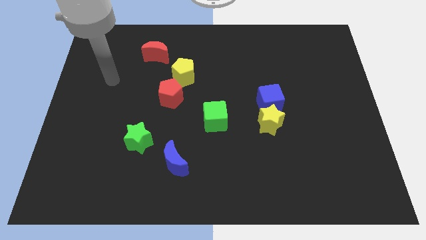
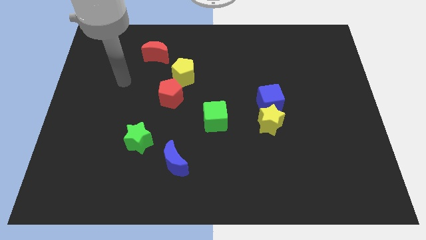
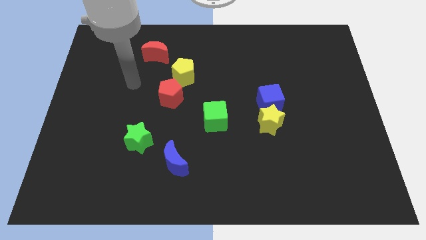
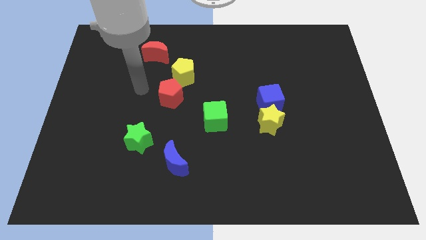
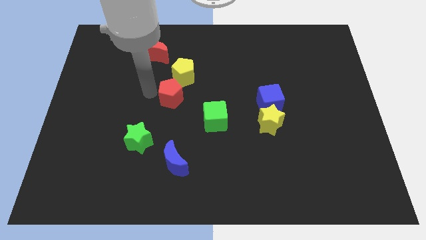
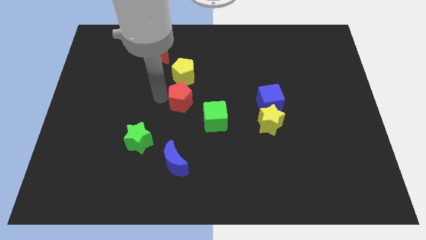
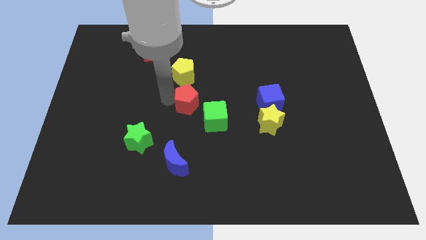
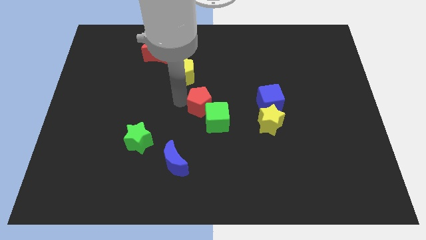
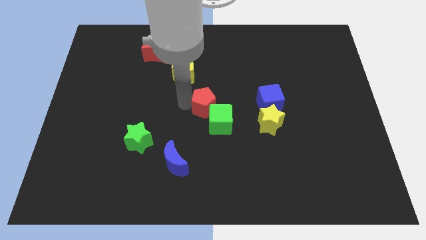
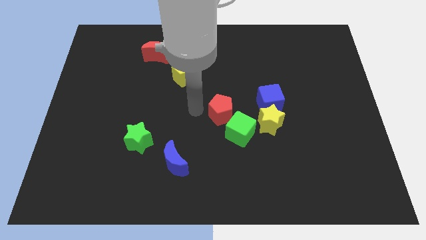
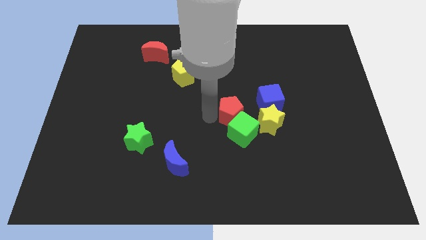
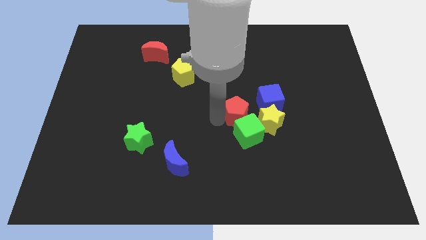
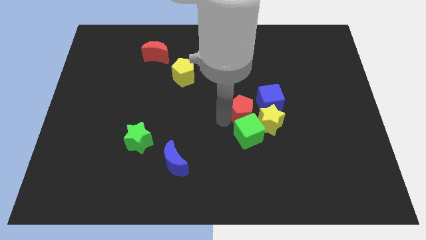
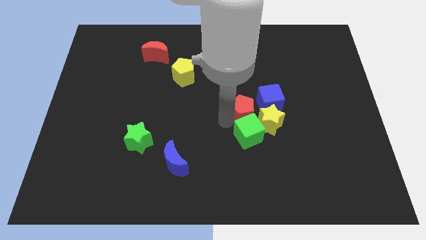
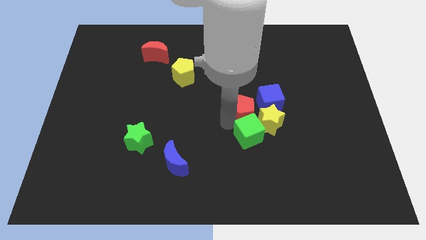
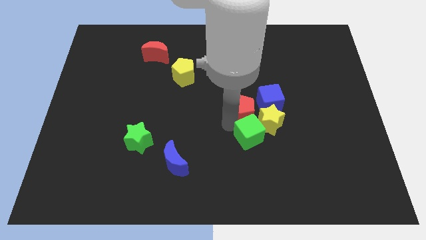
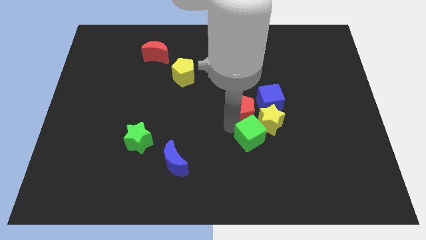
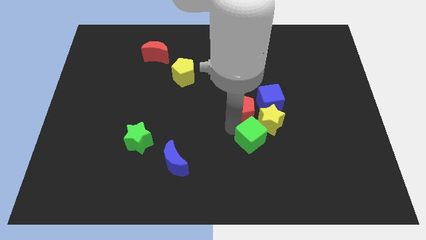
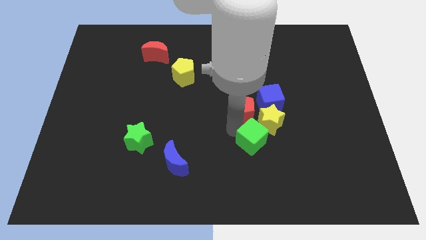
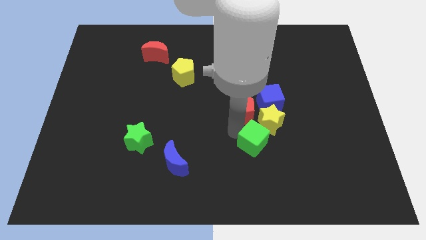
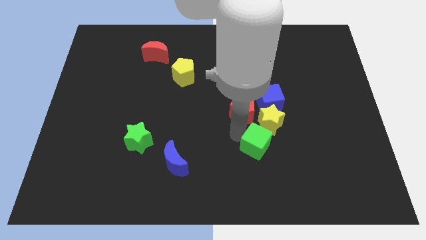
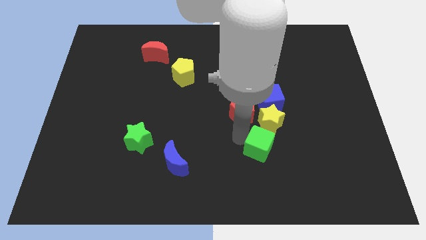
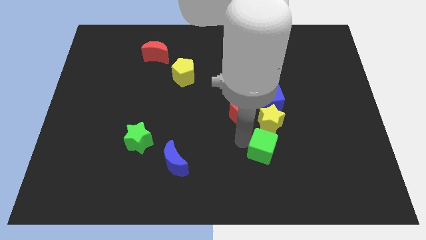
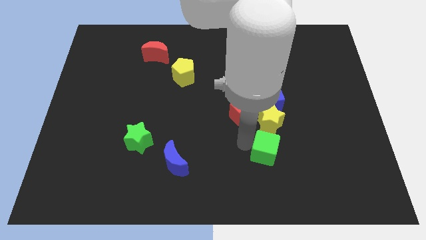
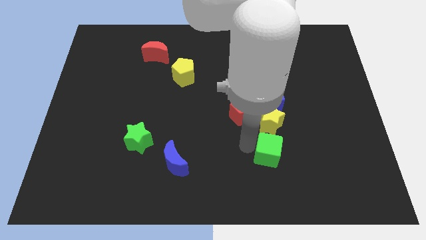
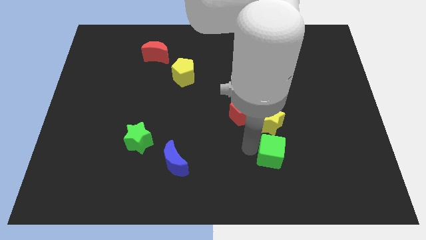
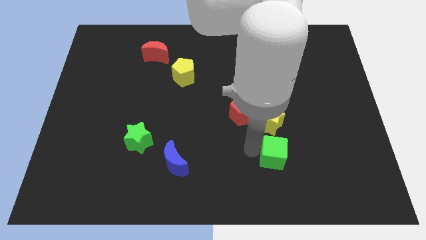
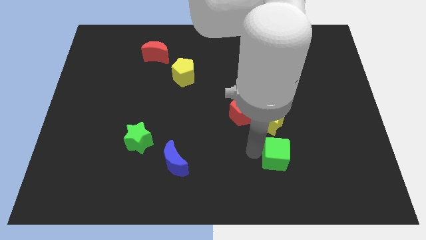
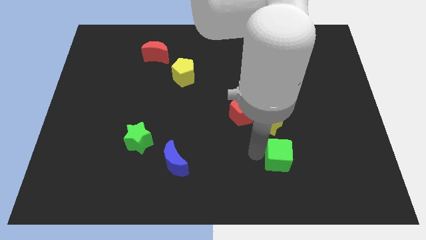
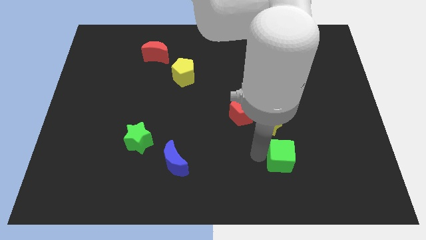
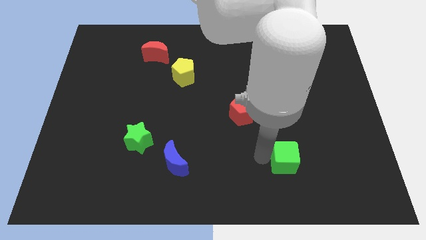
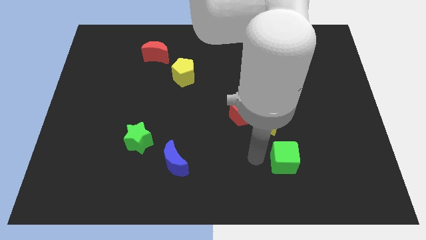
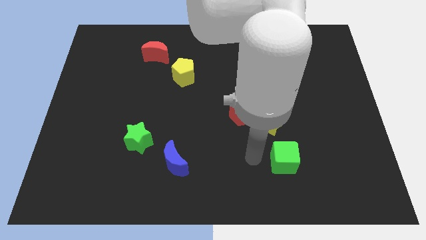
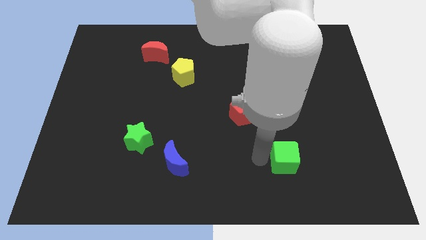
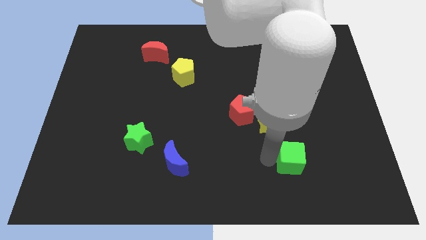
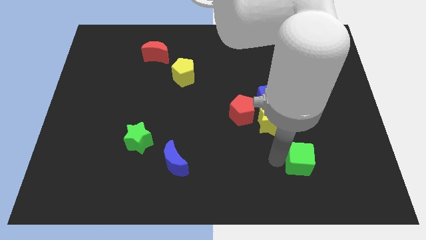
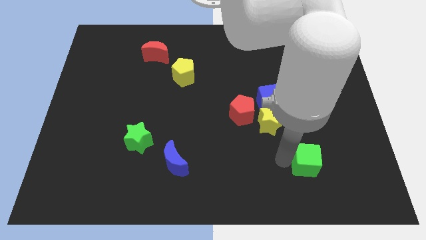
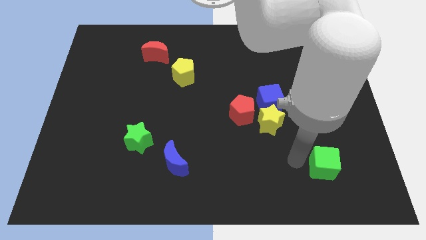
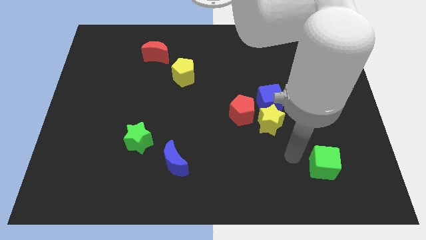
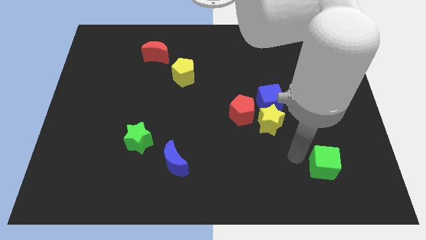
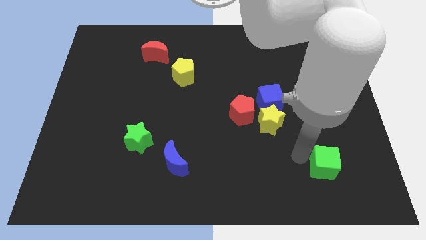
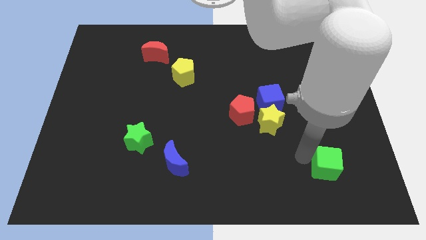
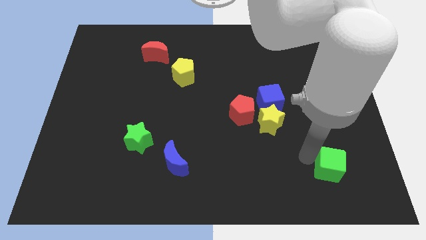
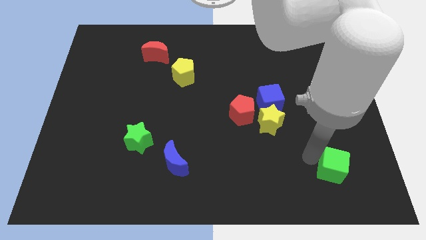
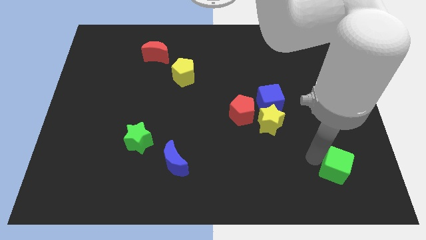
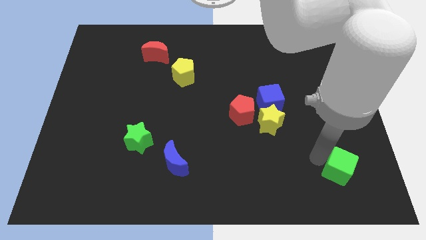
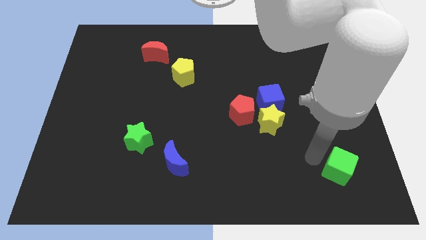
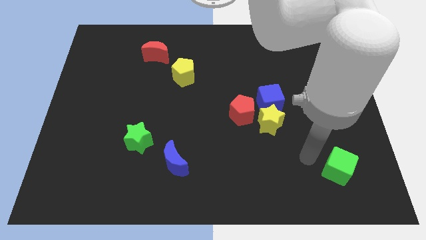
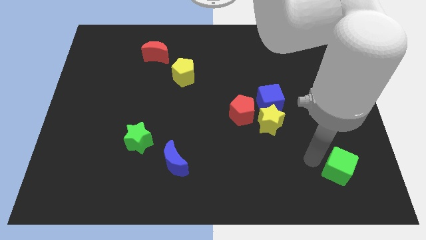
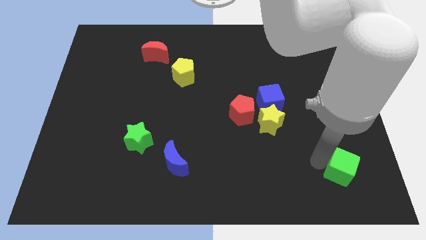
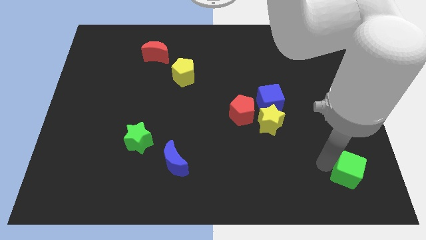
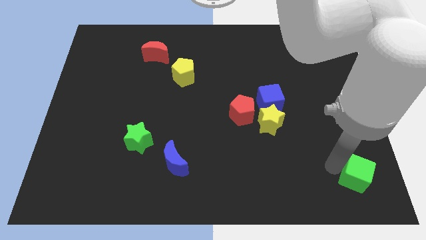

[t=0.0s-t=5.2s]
slide the green cube to the lower right corner

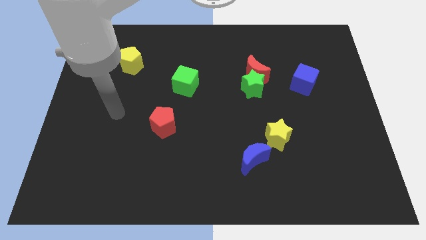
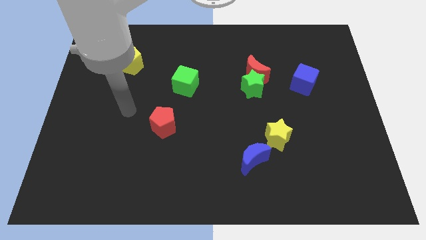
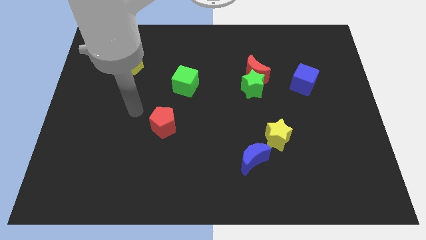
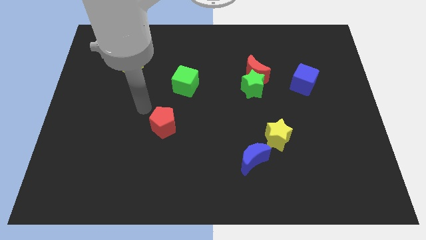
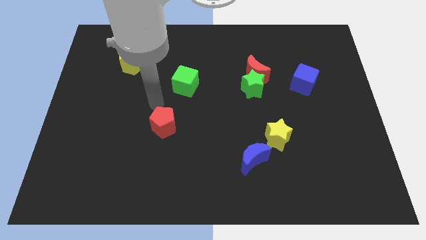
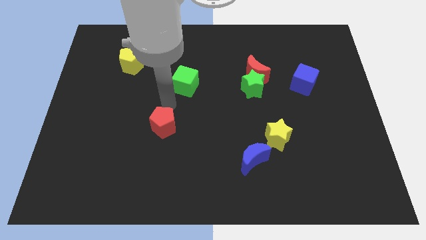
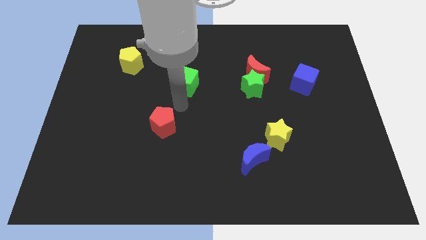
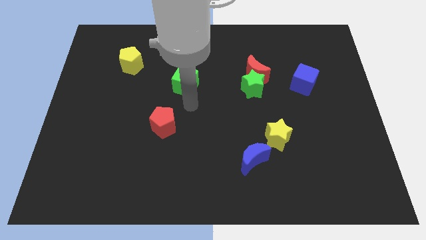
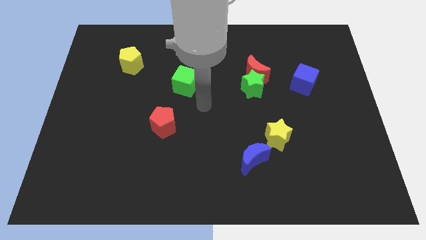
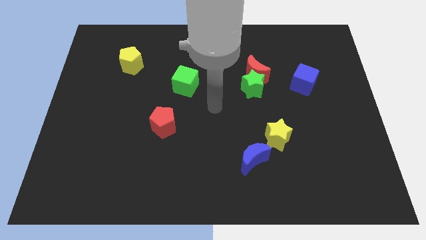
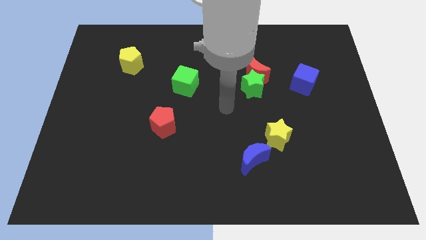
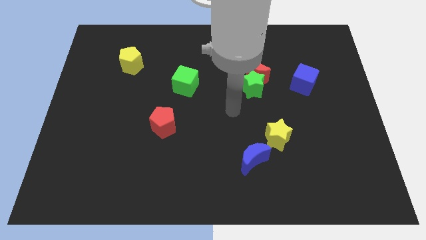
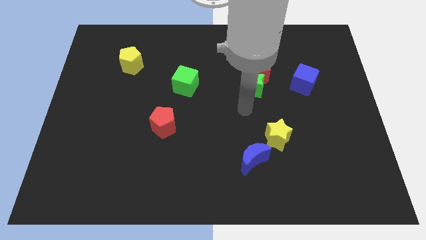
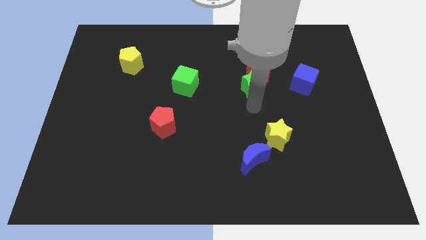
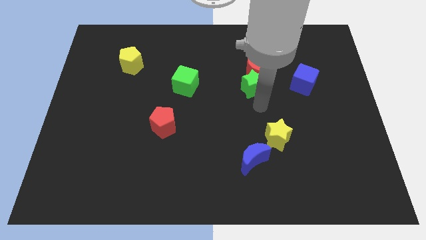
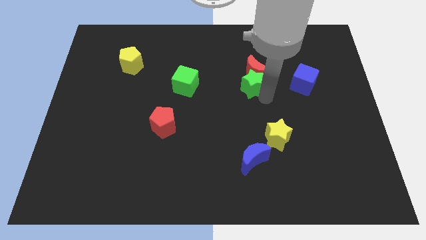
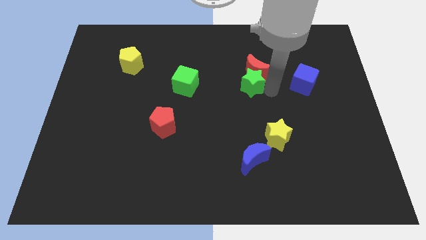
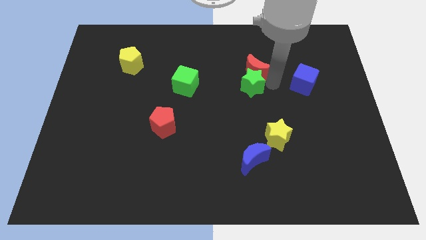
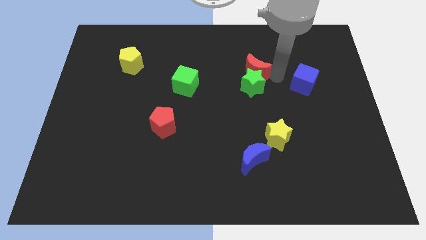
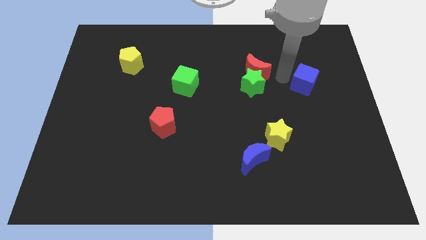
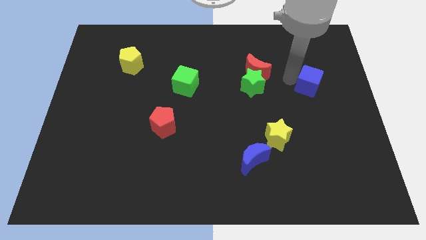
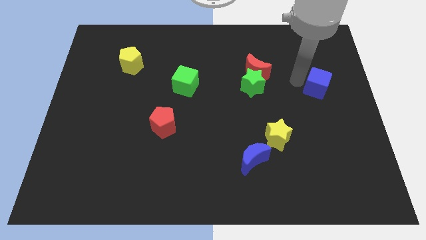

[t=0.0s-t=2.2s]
push the blue cube to the right side
